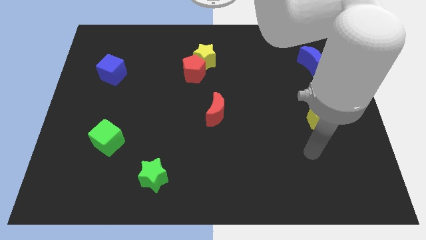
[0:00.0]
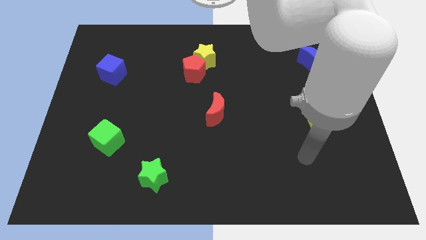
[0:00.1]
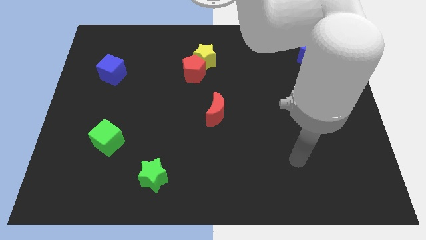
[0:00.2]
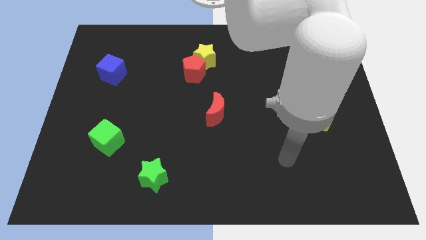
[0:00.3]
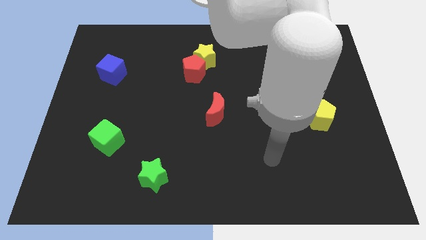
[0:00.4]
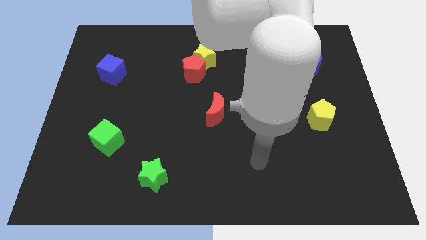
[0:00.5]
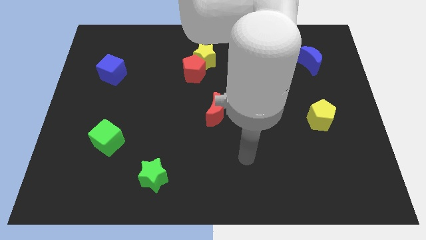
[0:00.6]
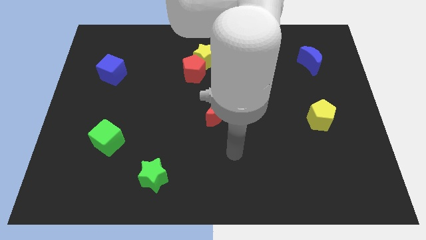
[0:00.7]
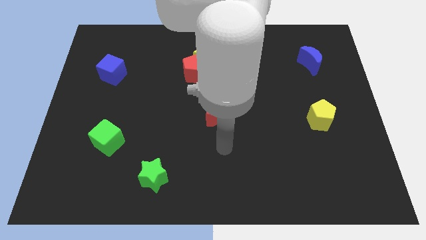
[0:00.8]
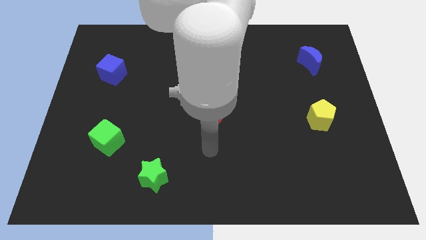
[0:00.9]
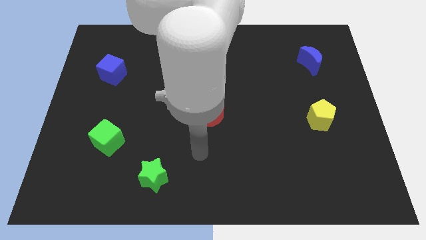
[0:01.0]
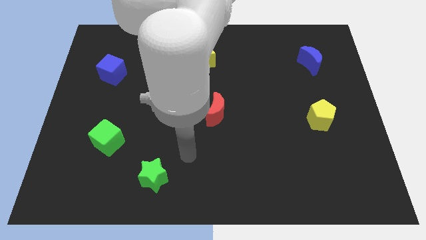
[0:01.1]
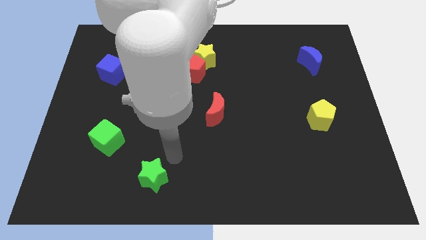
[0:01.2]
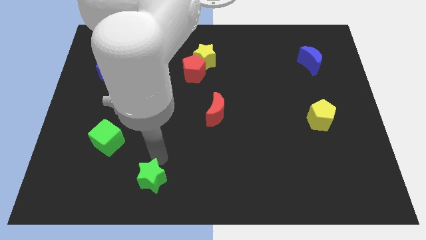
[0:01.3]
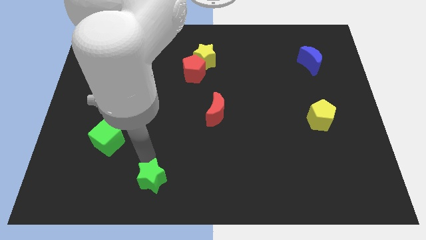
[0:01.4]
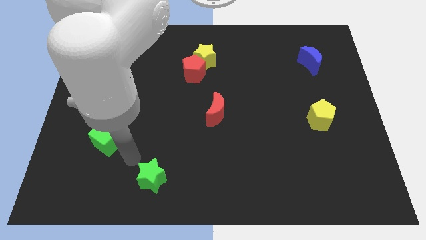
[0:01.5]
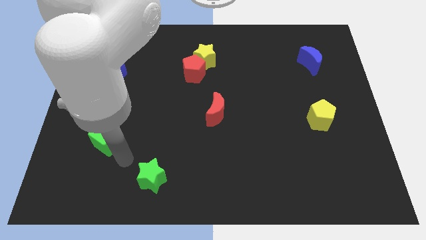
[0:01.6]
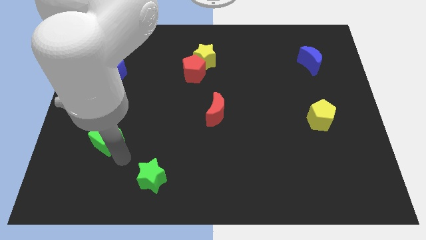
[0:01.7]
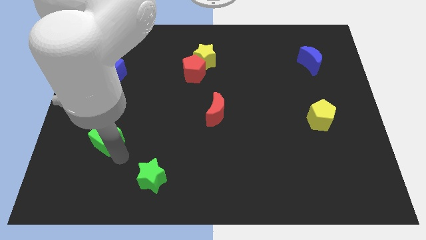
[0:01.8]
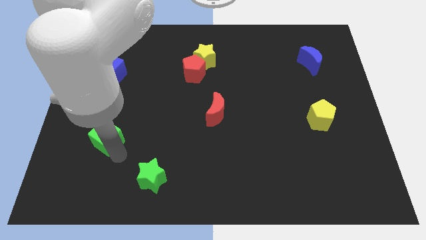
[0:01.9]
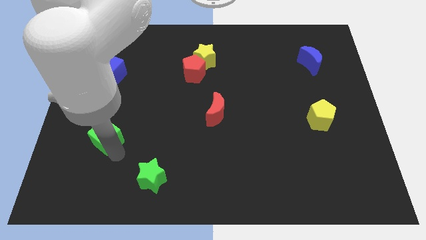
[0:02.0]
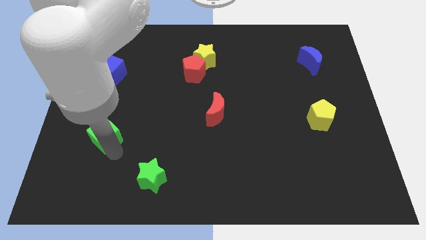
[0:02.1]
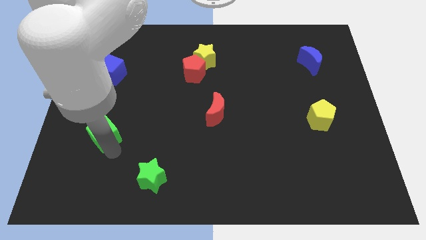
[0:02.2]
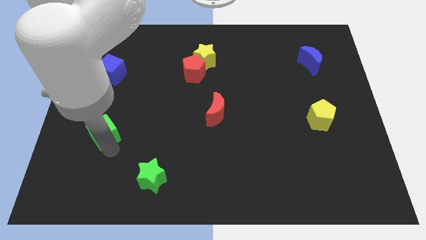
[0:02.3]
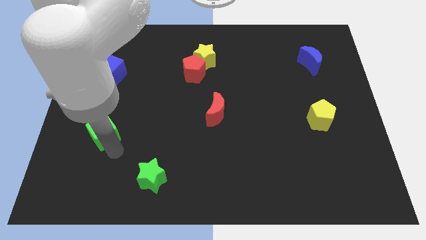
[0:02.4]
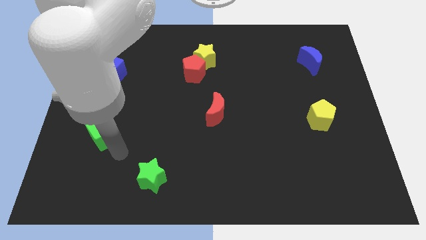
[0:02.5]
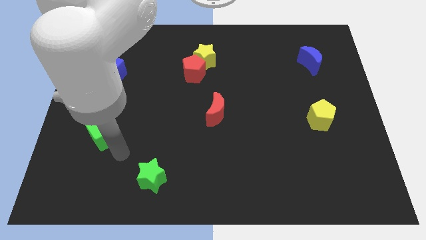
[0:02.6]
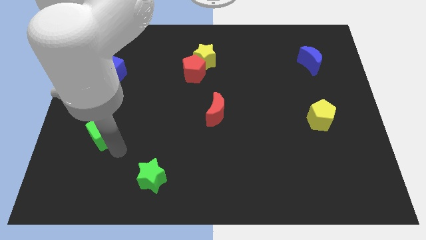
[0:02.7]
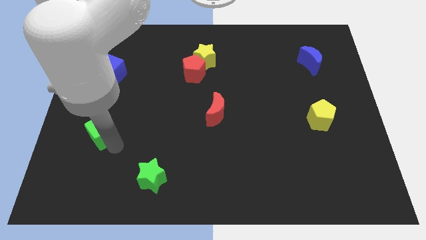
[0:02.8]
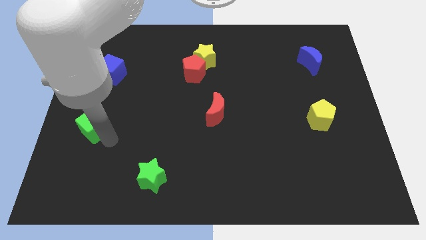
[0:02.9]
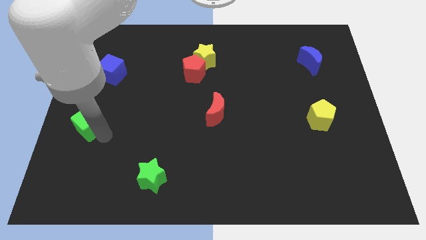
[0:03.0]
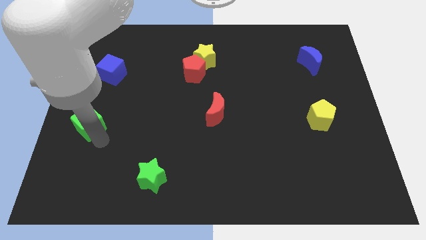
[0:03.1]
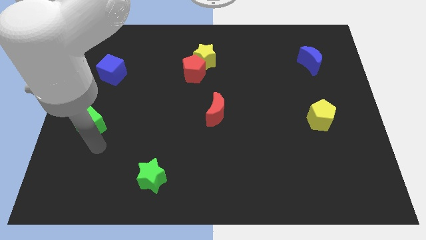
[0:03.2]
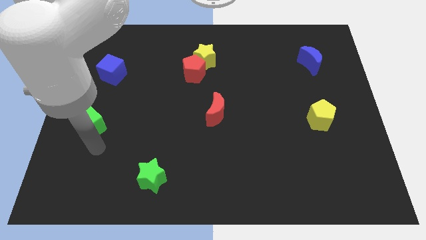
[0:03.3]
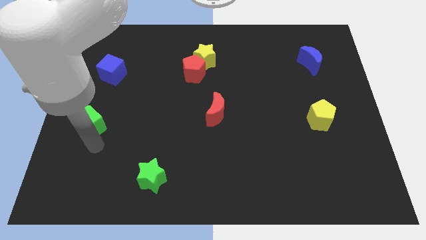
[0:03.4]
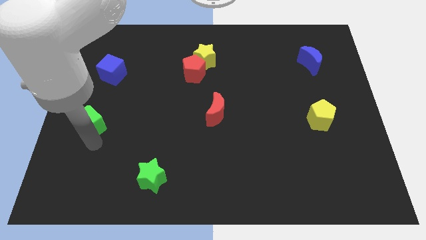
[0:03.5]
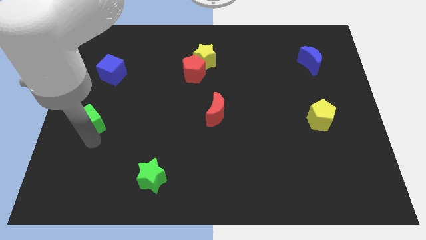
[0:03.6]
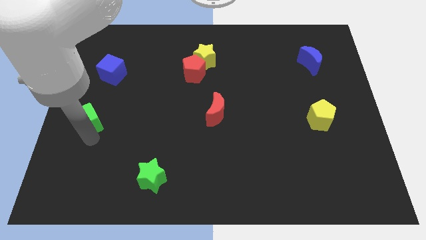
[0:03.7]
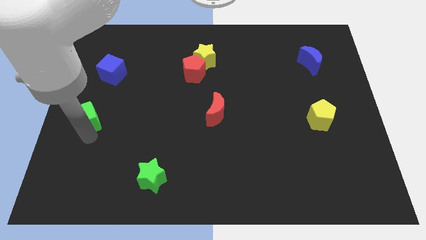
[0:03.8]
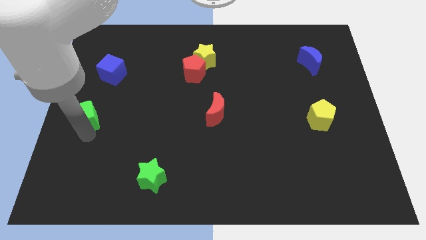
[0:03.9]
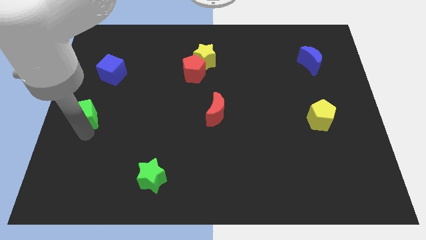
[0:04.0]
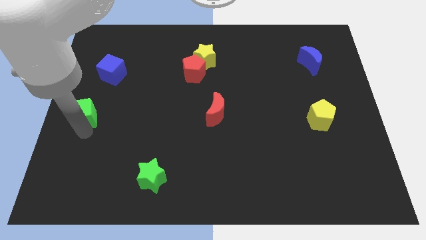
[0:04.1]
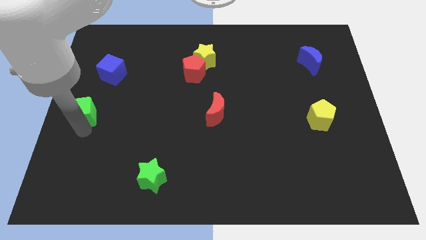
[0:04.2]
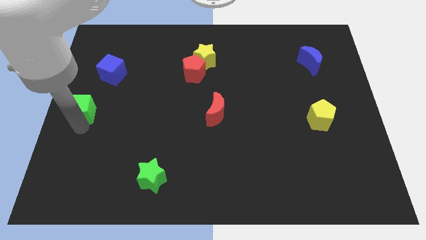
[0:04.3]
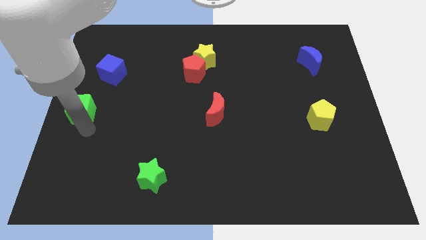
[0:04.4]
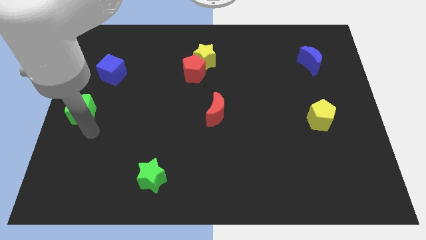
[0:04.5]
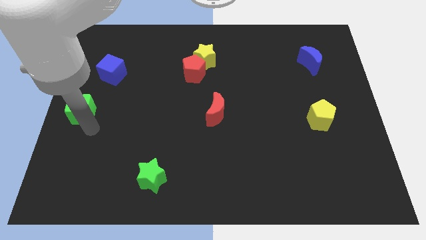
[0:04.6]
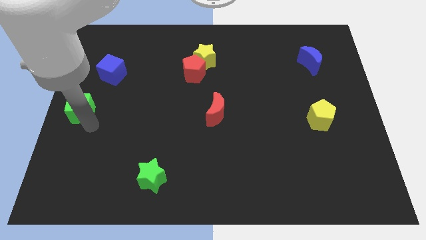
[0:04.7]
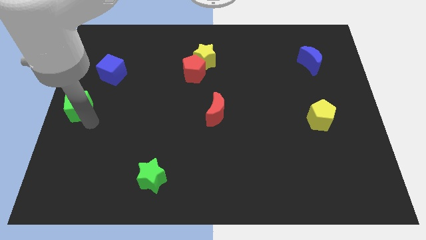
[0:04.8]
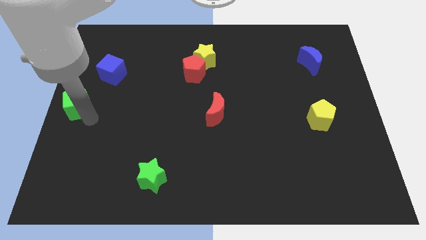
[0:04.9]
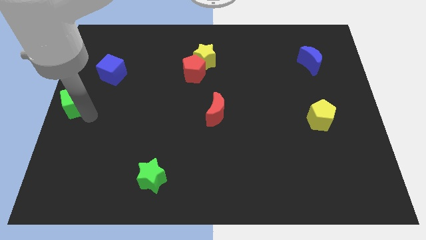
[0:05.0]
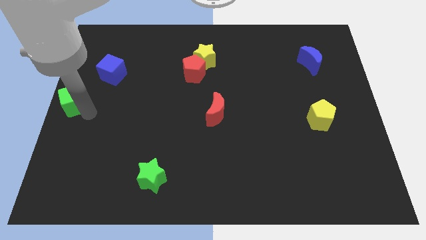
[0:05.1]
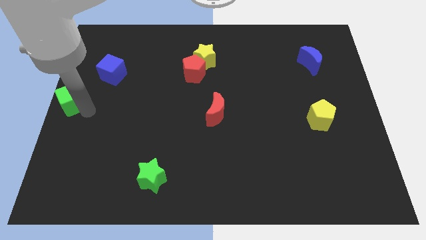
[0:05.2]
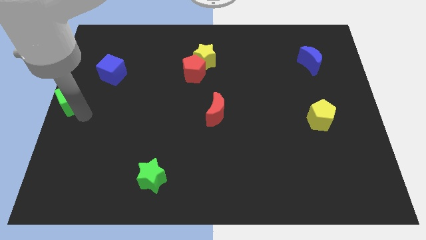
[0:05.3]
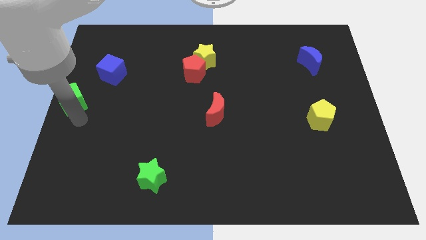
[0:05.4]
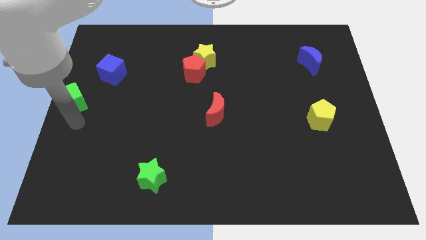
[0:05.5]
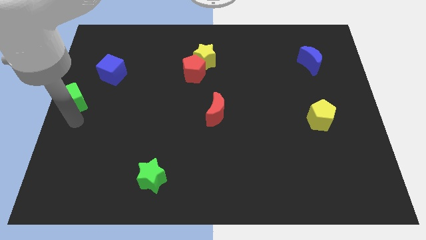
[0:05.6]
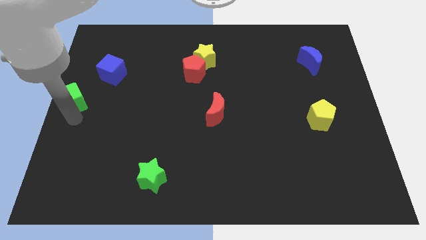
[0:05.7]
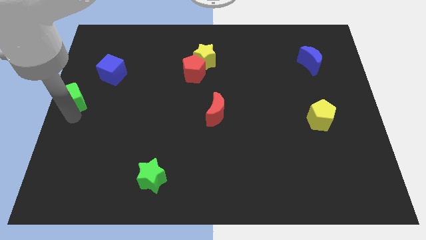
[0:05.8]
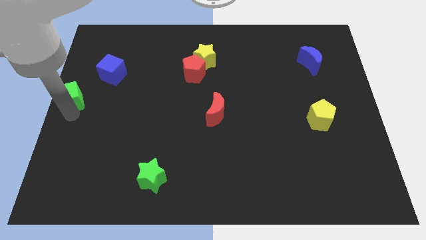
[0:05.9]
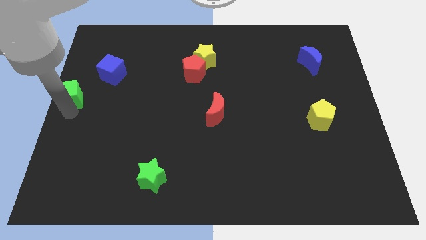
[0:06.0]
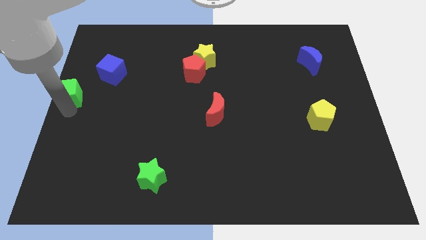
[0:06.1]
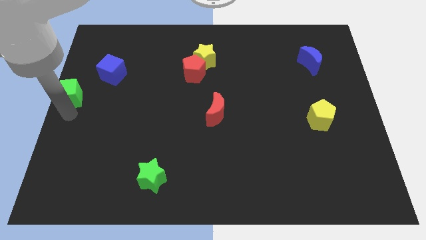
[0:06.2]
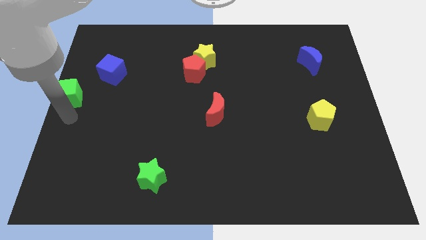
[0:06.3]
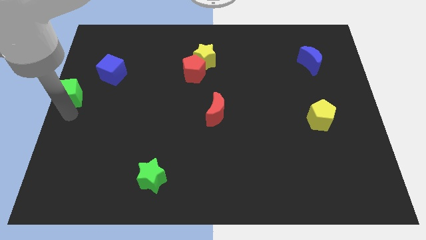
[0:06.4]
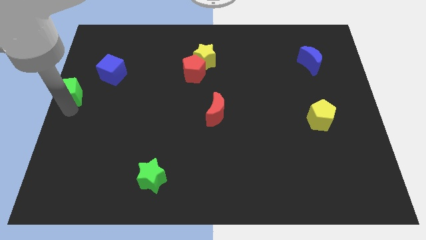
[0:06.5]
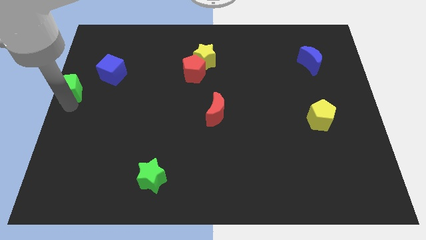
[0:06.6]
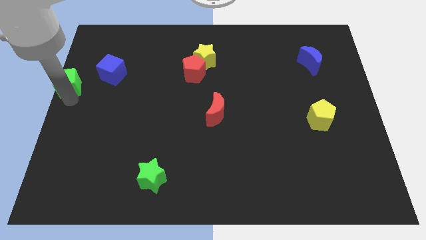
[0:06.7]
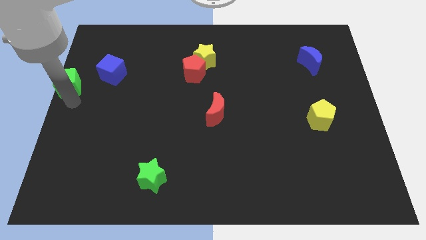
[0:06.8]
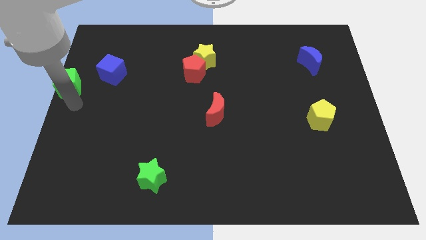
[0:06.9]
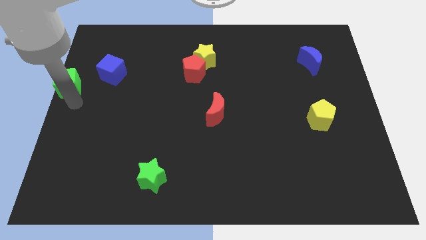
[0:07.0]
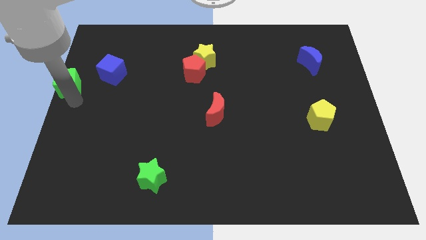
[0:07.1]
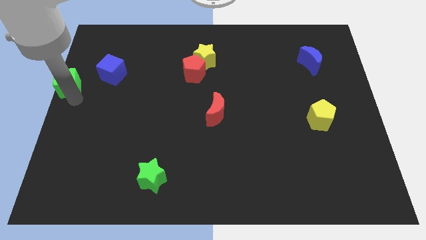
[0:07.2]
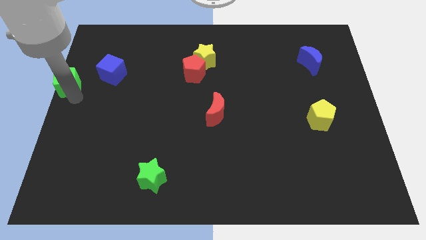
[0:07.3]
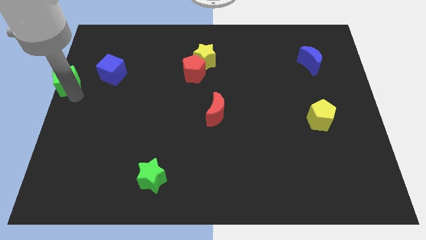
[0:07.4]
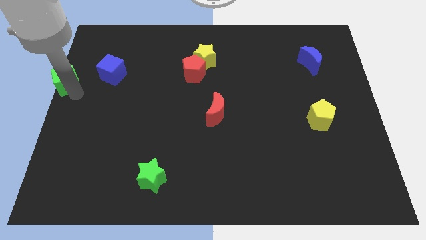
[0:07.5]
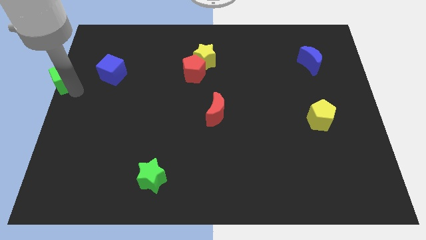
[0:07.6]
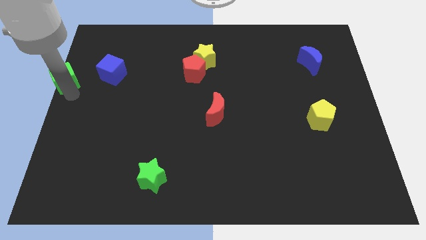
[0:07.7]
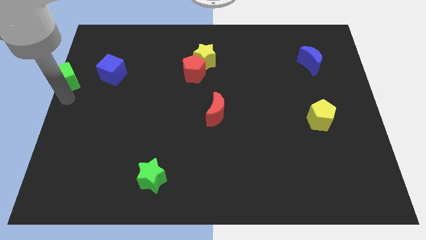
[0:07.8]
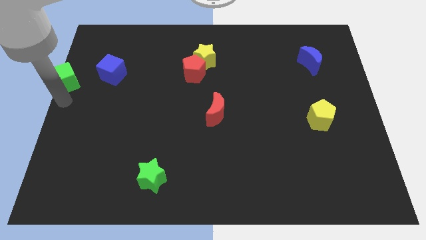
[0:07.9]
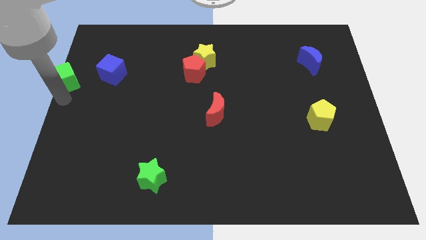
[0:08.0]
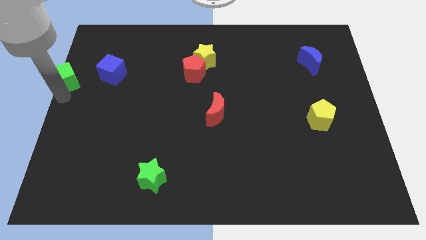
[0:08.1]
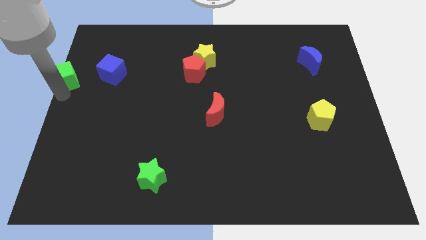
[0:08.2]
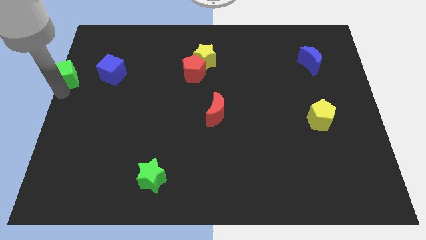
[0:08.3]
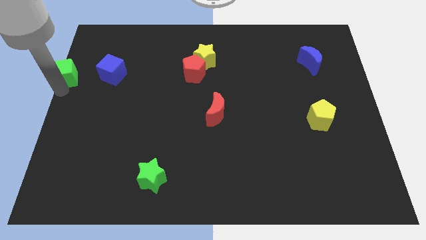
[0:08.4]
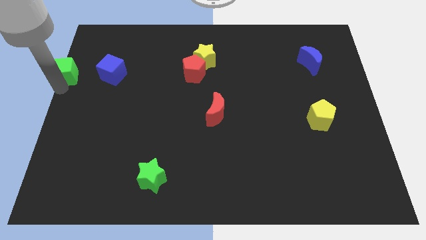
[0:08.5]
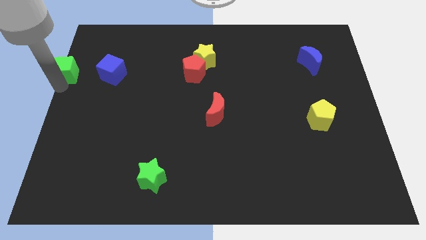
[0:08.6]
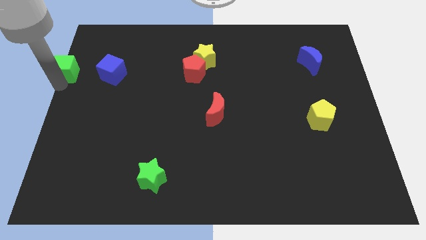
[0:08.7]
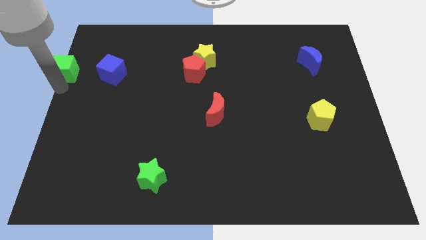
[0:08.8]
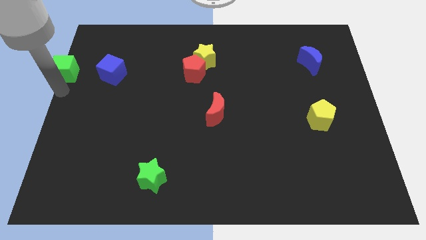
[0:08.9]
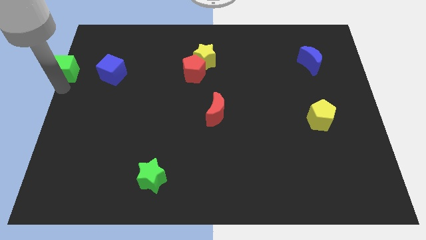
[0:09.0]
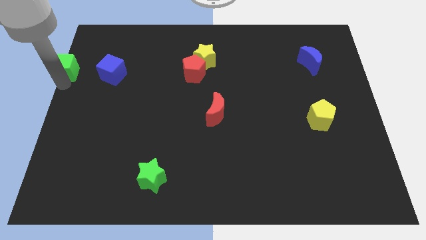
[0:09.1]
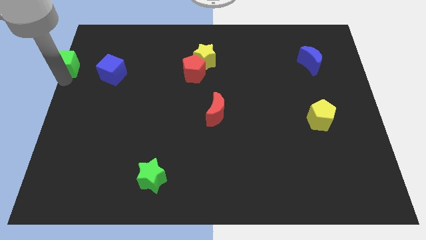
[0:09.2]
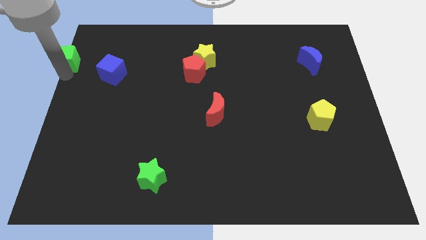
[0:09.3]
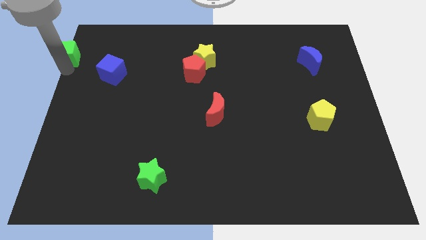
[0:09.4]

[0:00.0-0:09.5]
slide the green cube to the upper left corner
